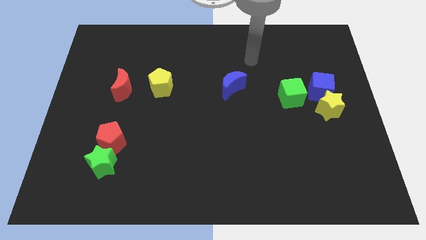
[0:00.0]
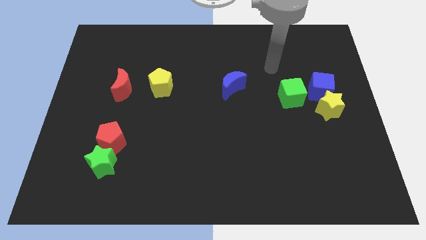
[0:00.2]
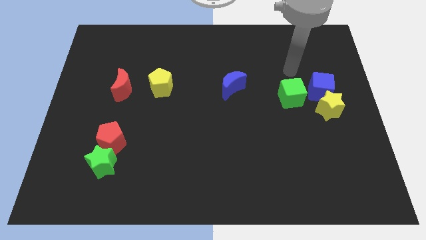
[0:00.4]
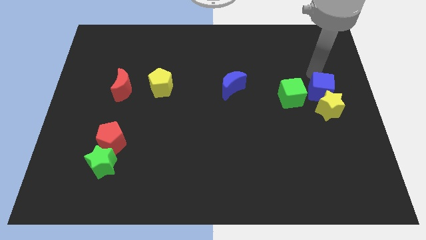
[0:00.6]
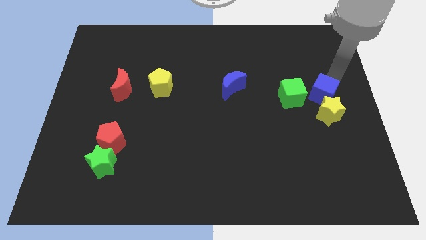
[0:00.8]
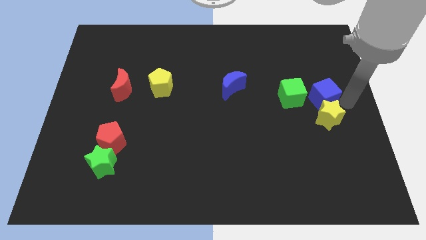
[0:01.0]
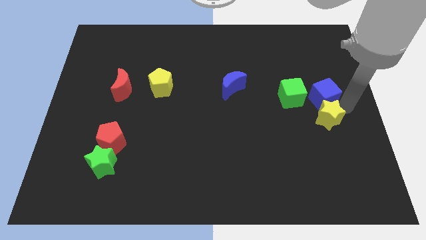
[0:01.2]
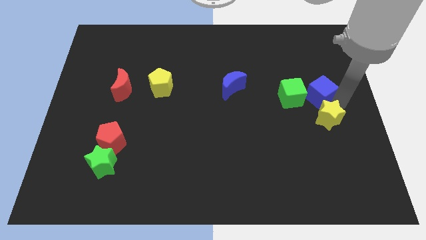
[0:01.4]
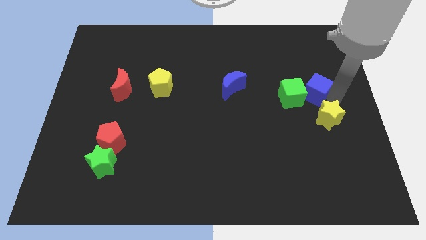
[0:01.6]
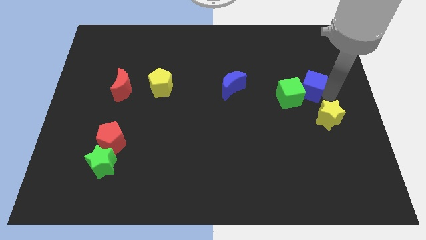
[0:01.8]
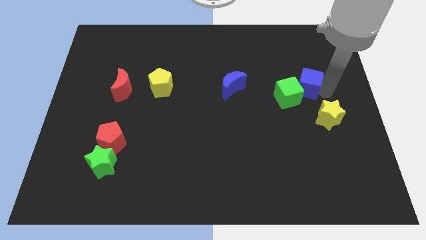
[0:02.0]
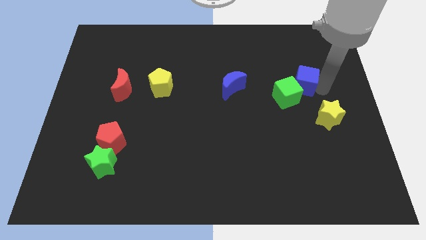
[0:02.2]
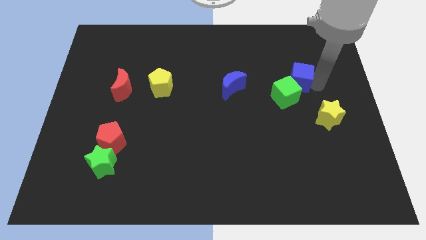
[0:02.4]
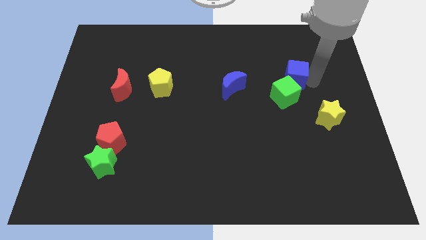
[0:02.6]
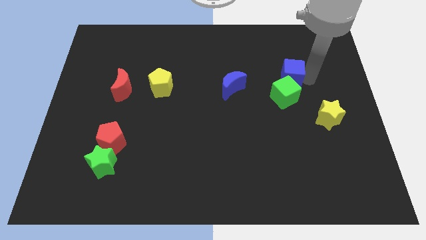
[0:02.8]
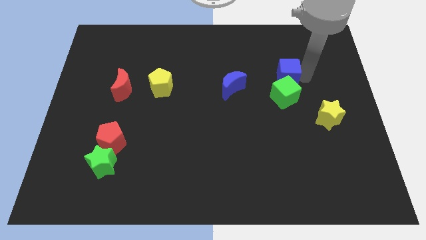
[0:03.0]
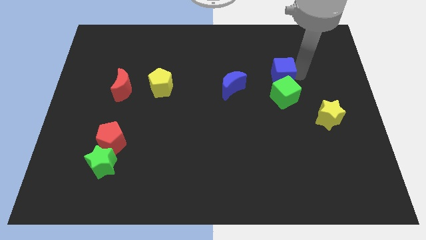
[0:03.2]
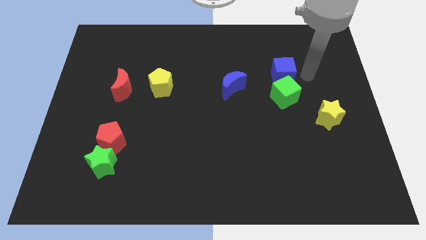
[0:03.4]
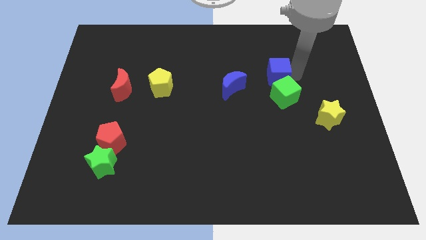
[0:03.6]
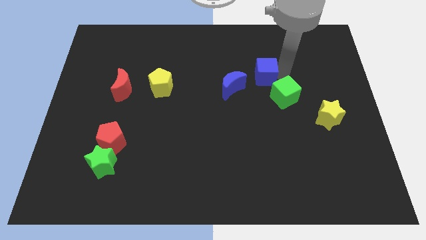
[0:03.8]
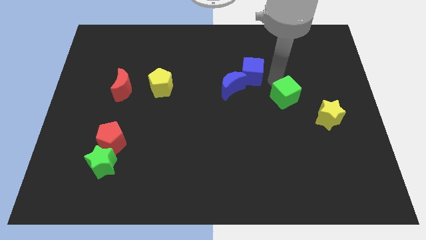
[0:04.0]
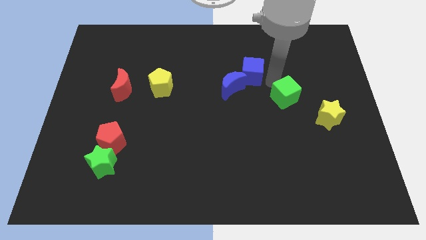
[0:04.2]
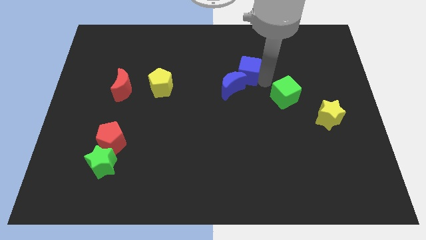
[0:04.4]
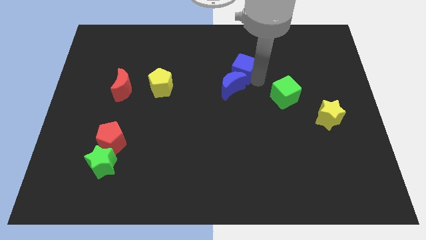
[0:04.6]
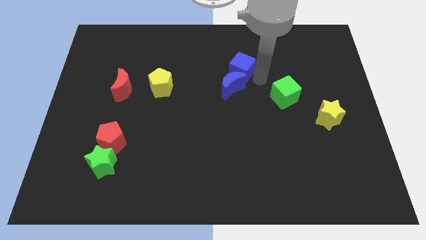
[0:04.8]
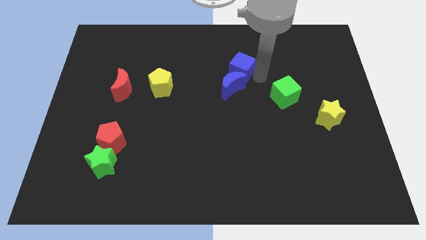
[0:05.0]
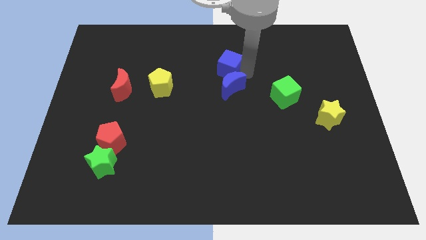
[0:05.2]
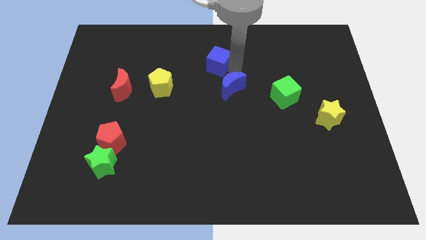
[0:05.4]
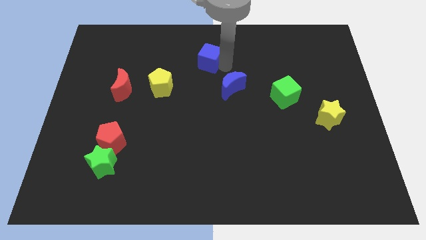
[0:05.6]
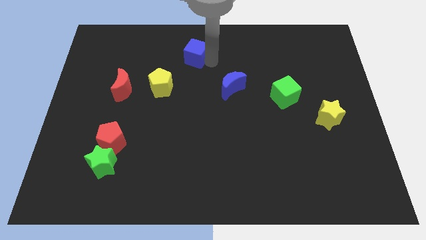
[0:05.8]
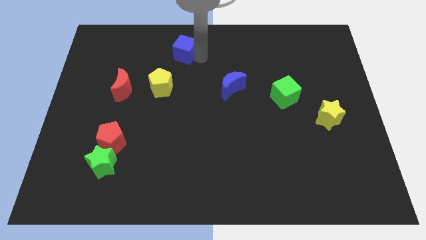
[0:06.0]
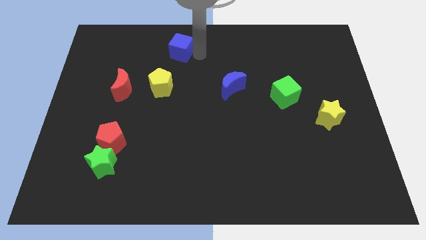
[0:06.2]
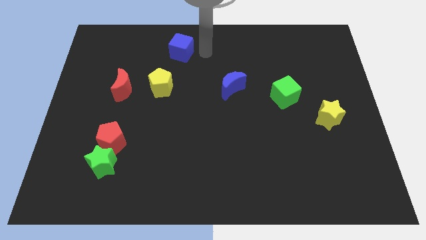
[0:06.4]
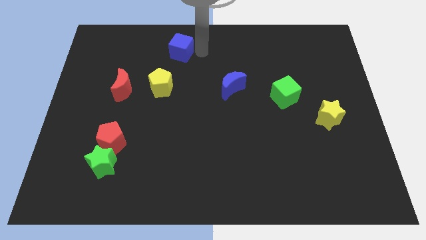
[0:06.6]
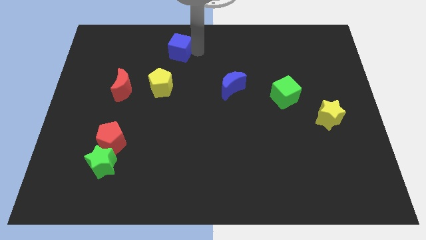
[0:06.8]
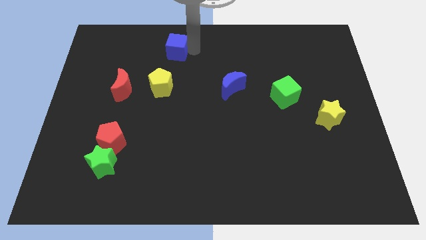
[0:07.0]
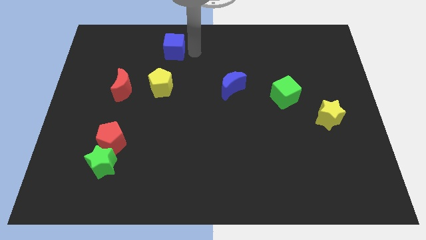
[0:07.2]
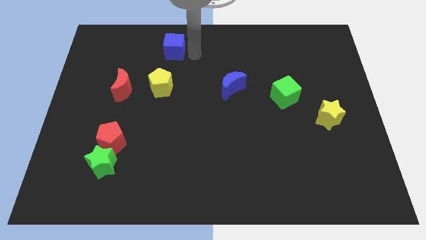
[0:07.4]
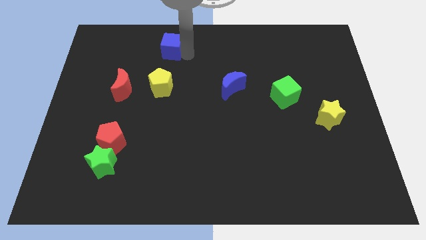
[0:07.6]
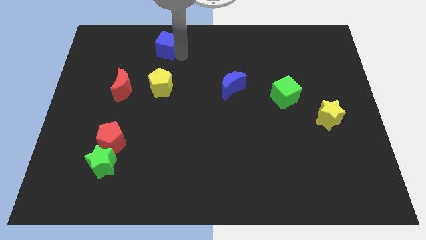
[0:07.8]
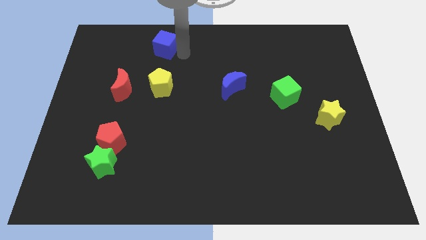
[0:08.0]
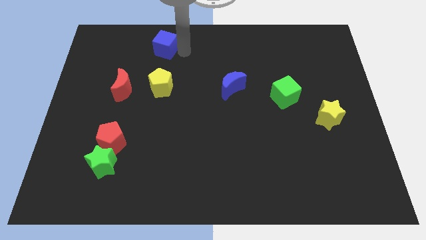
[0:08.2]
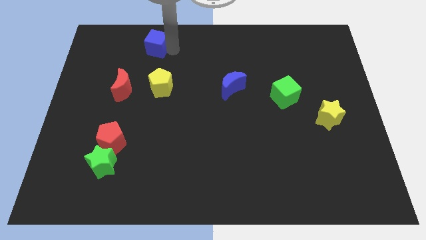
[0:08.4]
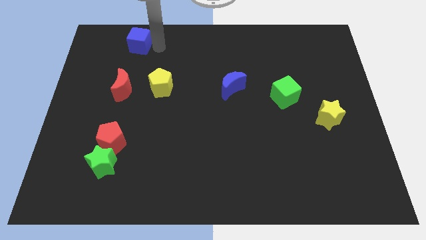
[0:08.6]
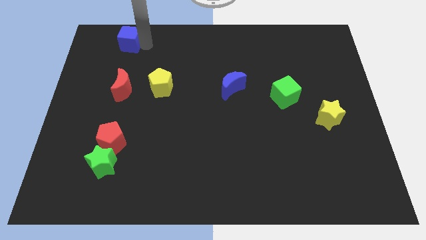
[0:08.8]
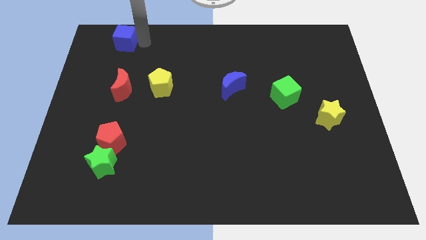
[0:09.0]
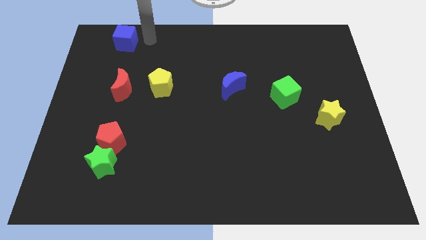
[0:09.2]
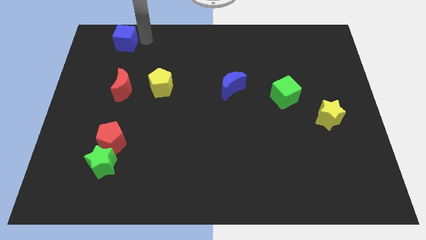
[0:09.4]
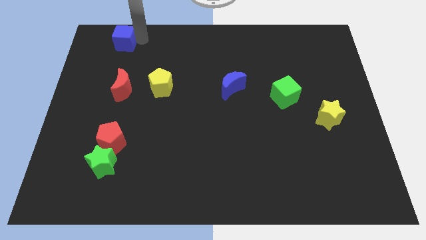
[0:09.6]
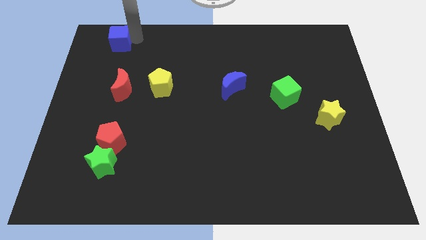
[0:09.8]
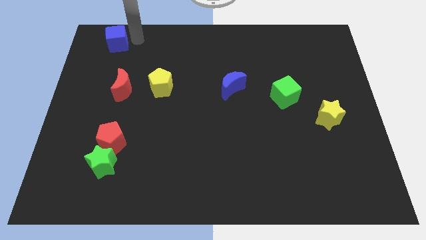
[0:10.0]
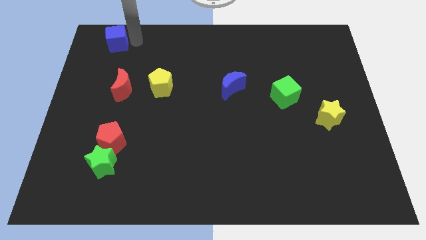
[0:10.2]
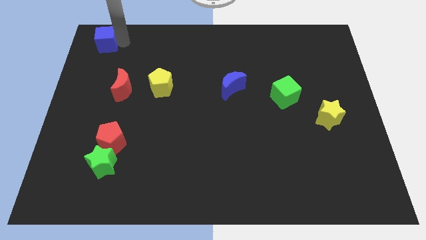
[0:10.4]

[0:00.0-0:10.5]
put the blue cube to the top left

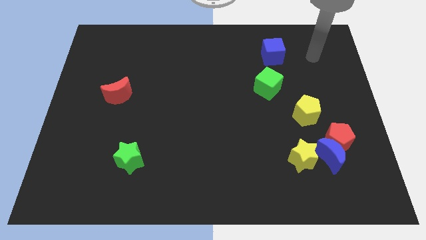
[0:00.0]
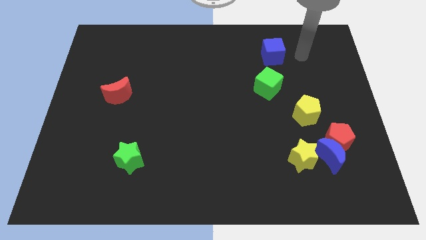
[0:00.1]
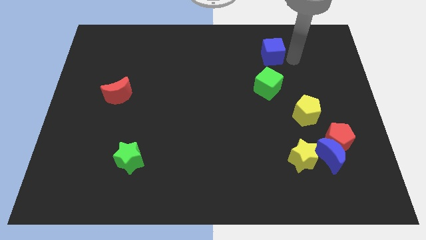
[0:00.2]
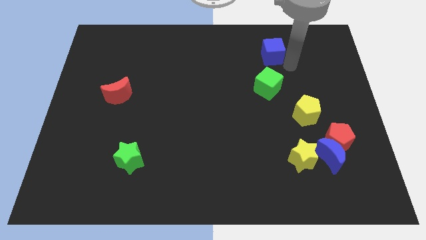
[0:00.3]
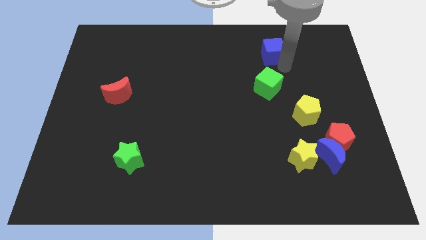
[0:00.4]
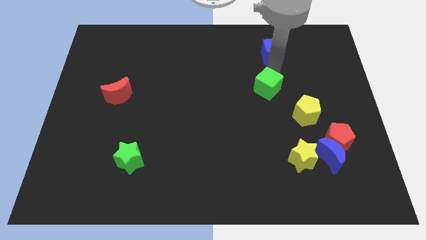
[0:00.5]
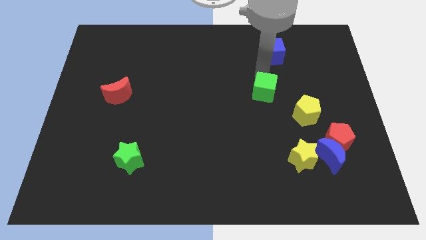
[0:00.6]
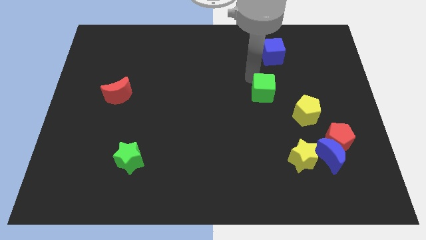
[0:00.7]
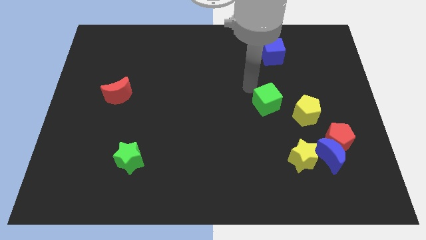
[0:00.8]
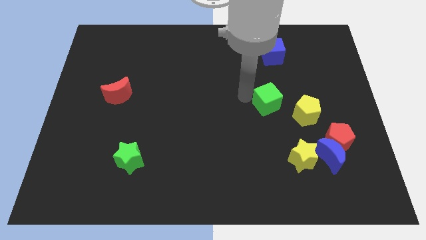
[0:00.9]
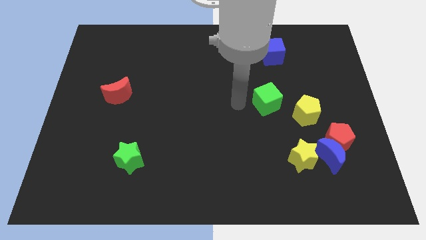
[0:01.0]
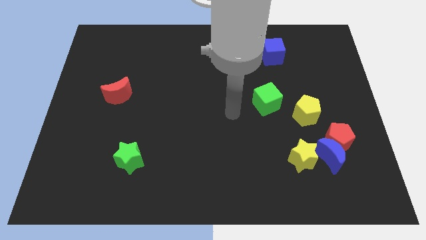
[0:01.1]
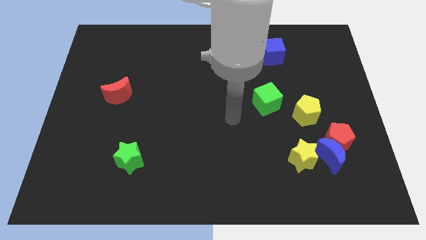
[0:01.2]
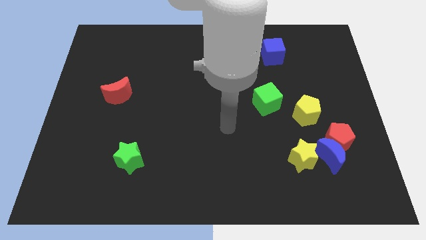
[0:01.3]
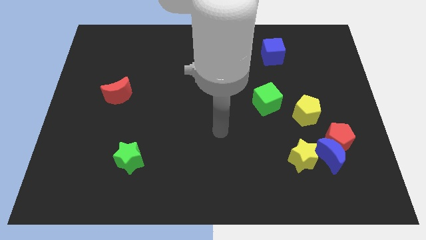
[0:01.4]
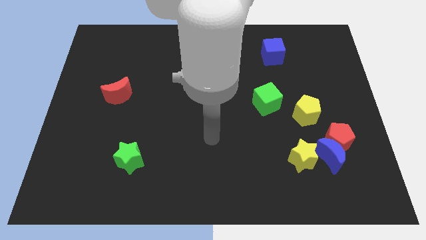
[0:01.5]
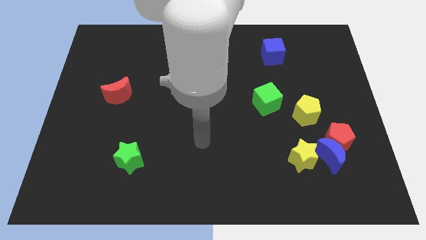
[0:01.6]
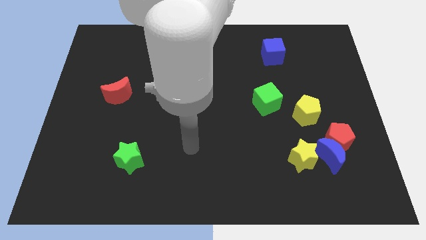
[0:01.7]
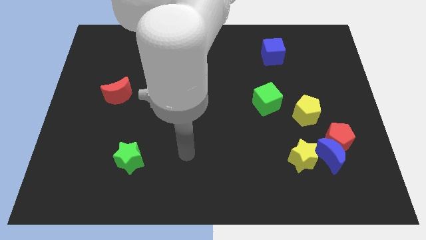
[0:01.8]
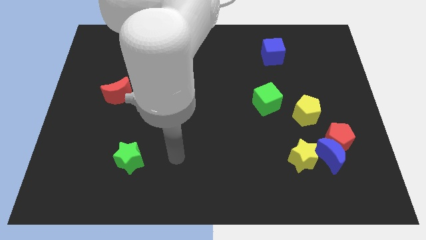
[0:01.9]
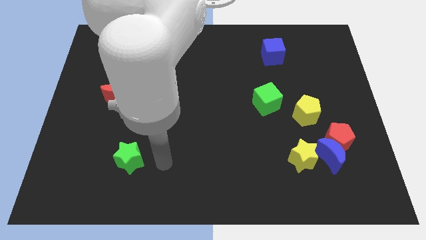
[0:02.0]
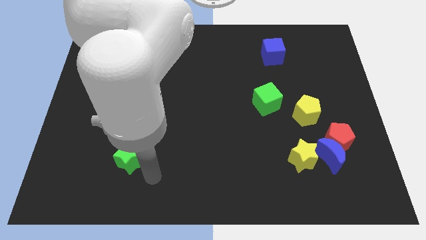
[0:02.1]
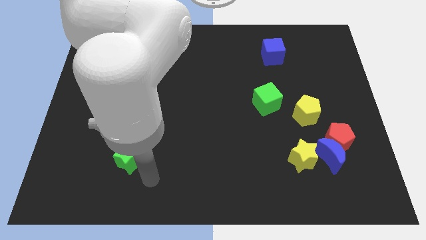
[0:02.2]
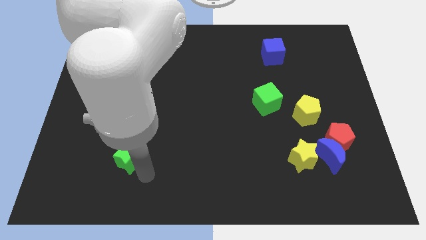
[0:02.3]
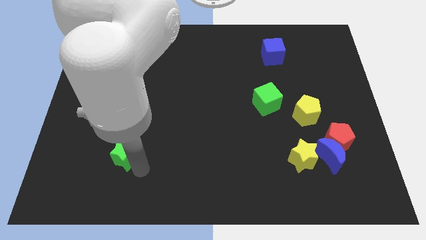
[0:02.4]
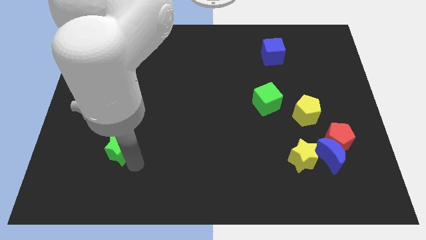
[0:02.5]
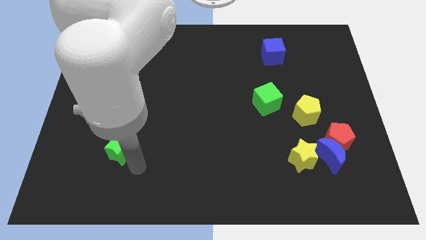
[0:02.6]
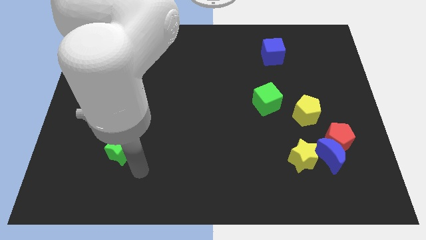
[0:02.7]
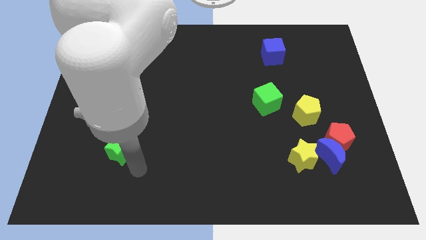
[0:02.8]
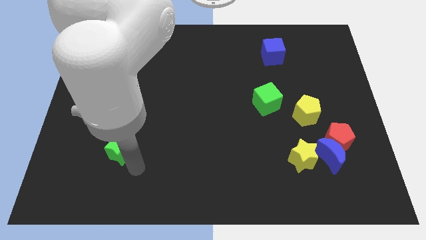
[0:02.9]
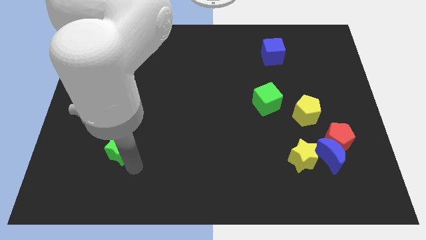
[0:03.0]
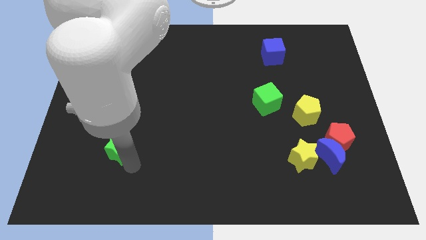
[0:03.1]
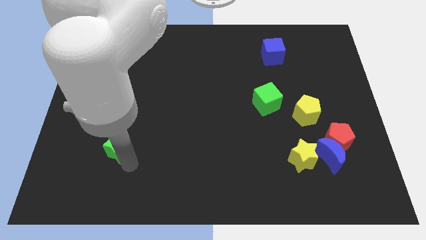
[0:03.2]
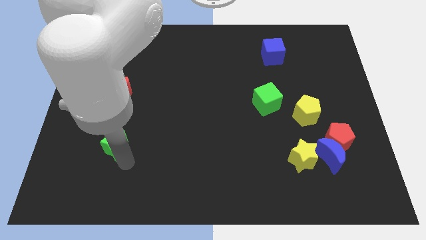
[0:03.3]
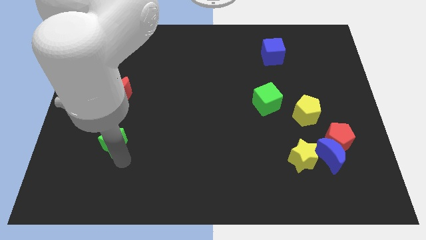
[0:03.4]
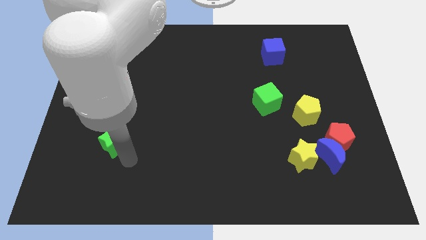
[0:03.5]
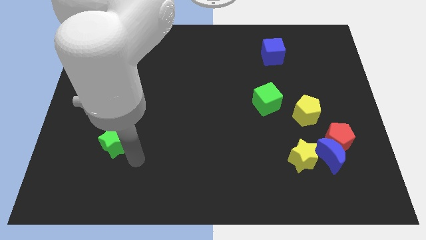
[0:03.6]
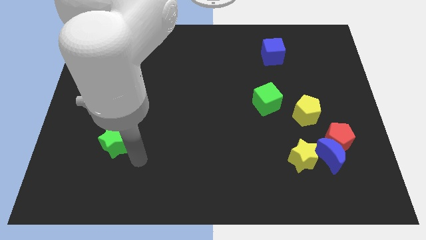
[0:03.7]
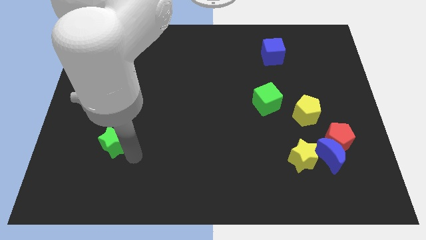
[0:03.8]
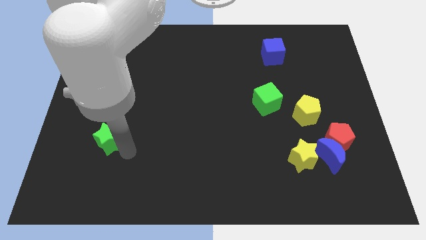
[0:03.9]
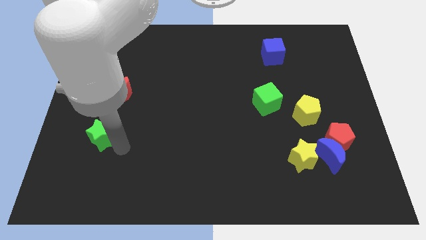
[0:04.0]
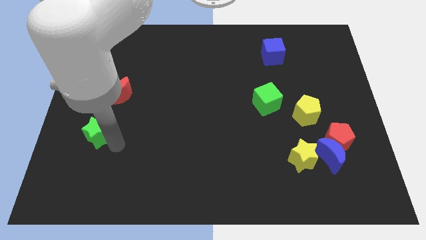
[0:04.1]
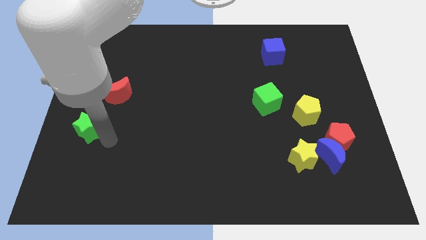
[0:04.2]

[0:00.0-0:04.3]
move the green star to the left side
